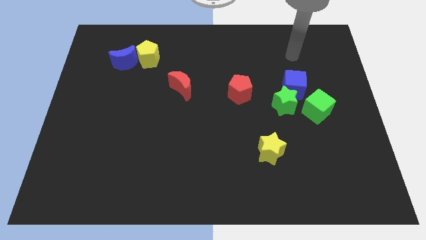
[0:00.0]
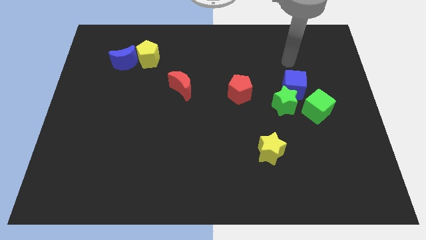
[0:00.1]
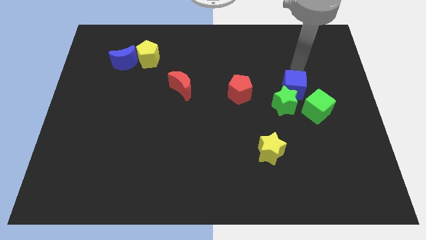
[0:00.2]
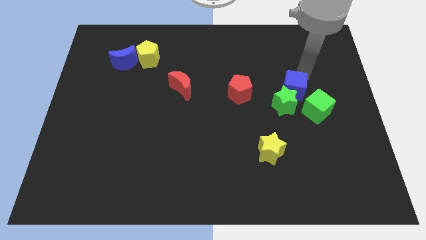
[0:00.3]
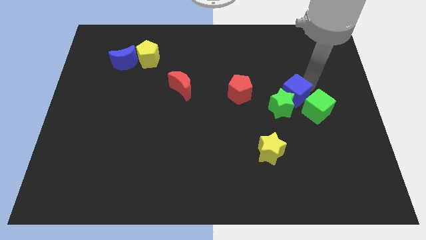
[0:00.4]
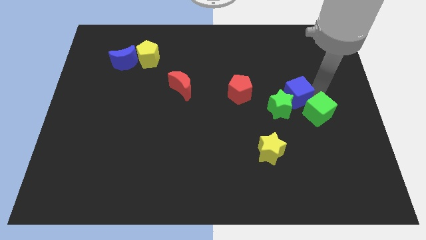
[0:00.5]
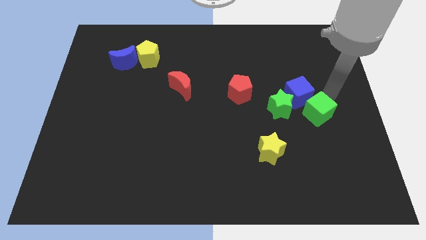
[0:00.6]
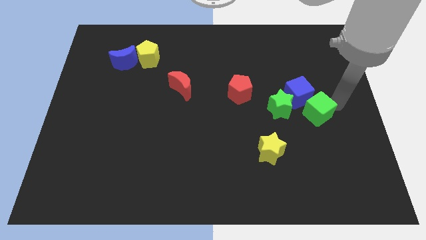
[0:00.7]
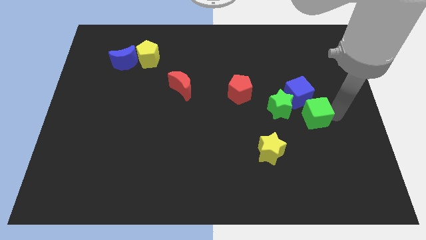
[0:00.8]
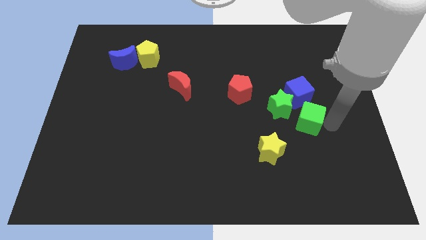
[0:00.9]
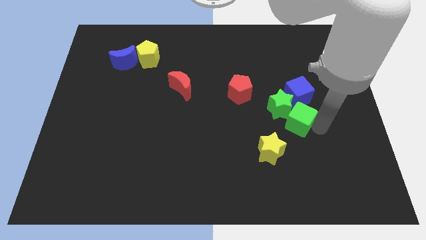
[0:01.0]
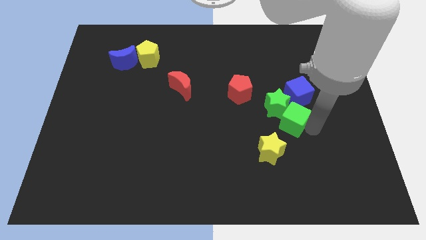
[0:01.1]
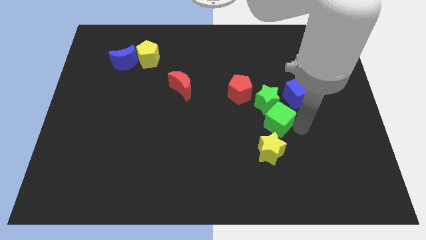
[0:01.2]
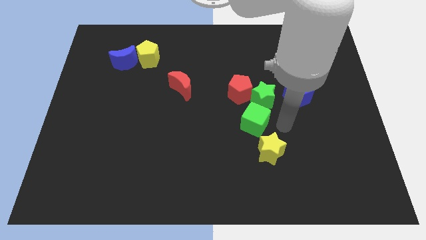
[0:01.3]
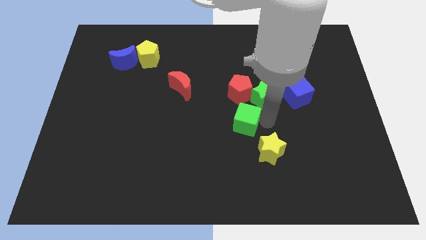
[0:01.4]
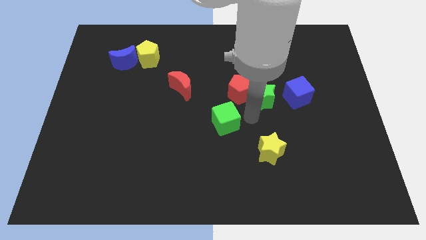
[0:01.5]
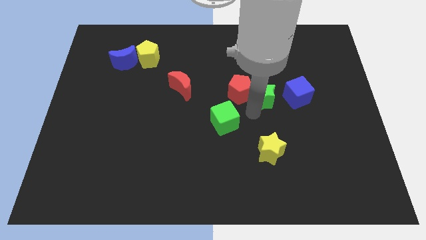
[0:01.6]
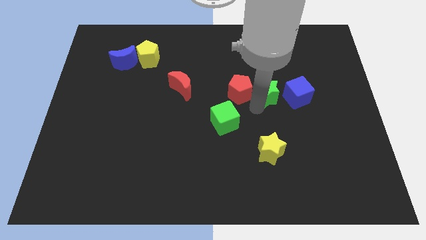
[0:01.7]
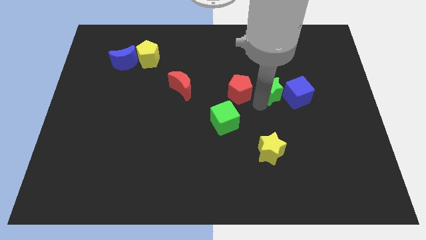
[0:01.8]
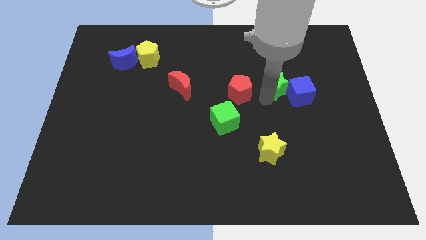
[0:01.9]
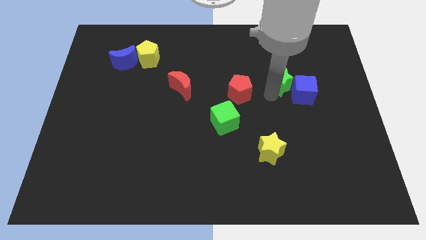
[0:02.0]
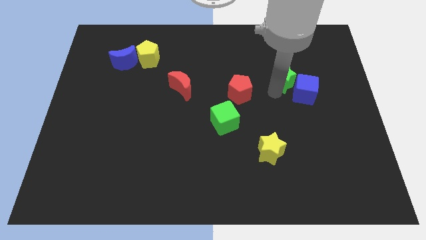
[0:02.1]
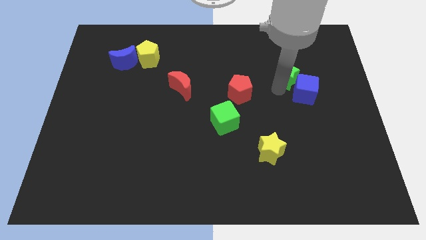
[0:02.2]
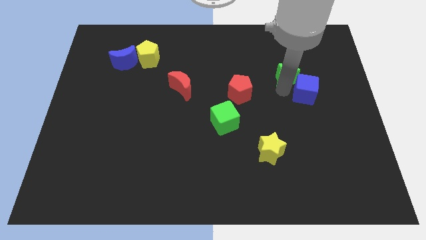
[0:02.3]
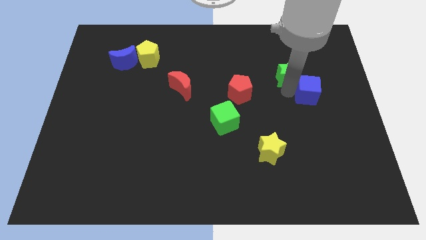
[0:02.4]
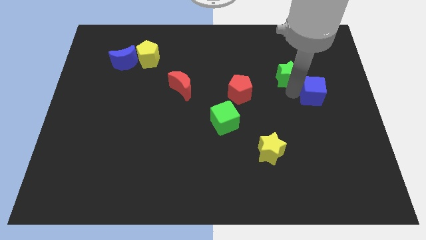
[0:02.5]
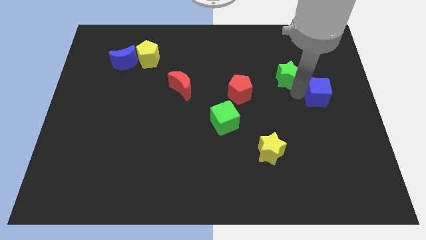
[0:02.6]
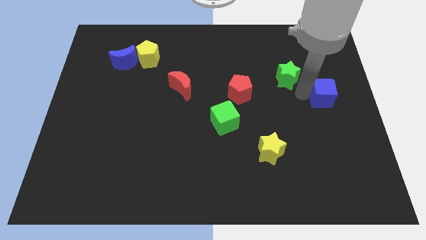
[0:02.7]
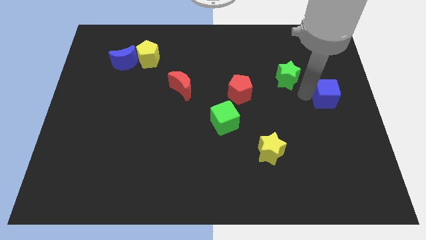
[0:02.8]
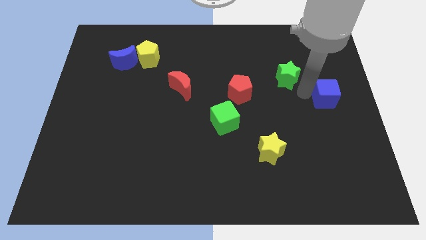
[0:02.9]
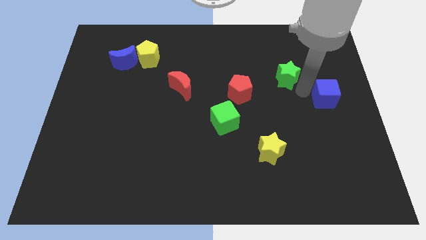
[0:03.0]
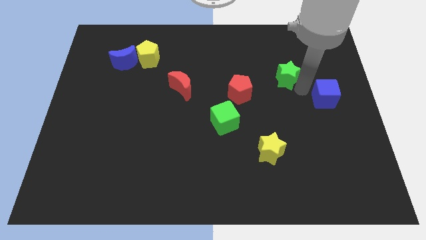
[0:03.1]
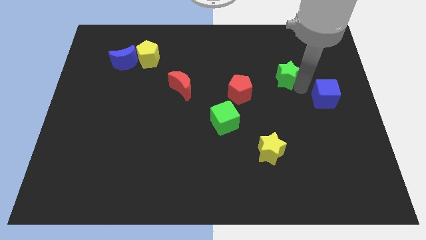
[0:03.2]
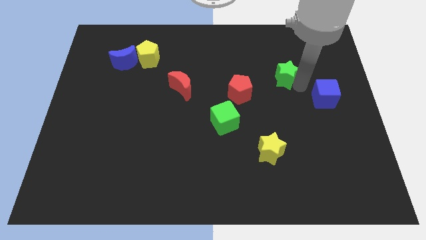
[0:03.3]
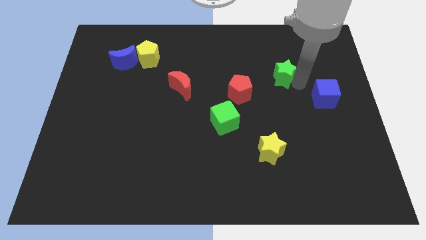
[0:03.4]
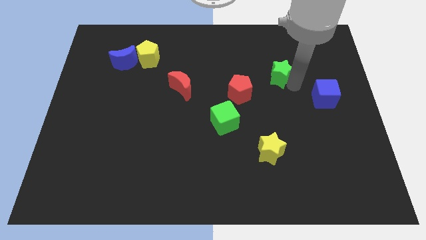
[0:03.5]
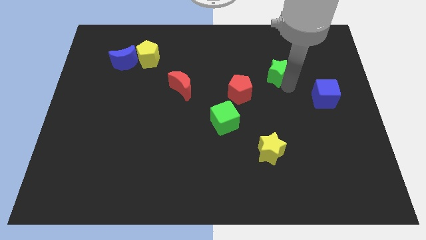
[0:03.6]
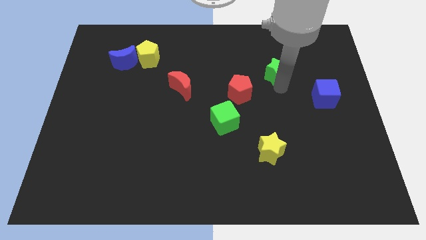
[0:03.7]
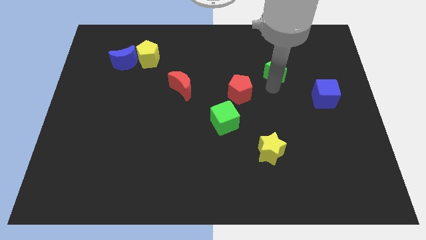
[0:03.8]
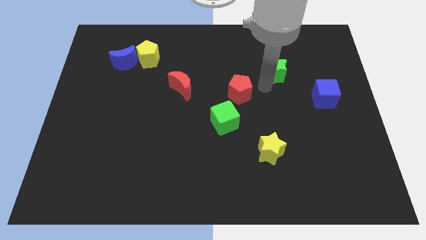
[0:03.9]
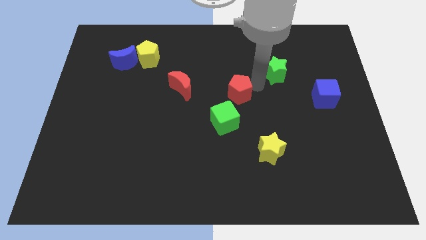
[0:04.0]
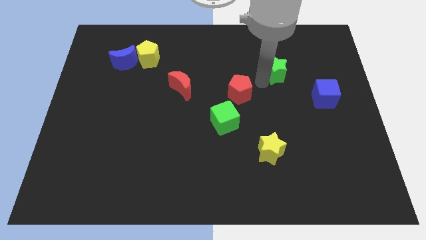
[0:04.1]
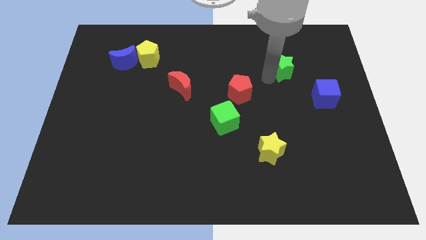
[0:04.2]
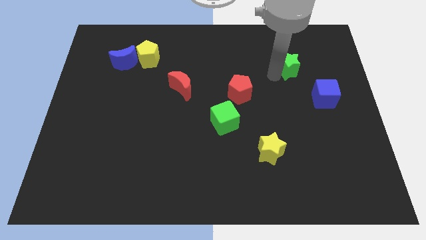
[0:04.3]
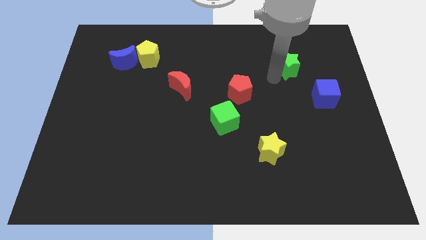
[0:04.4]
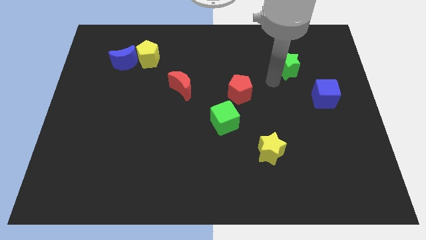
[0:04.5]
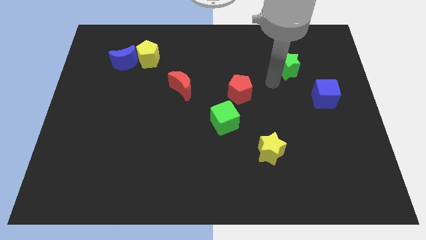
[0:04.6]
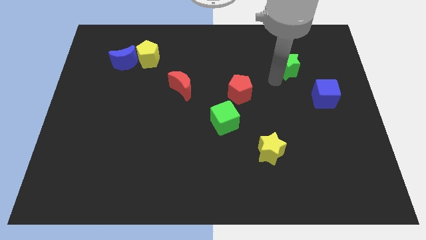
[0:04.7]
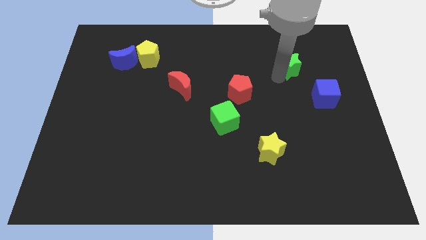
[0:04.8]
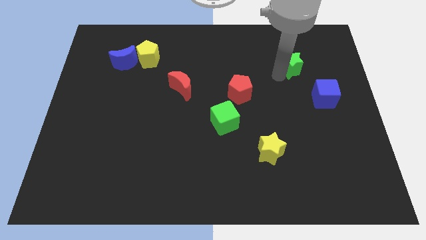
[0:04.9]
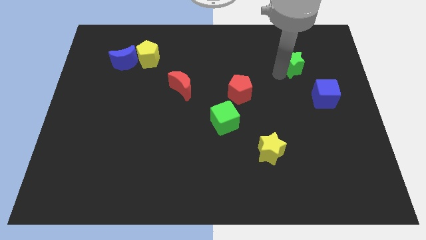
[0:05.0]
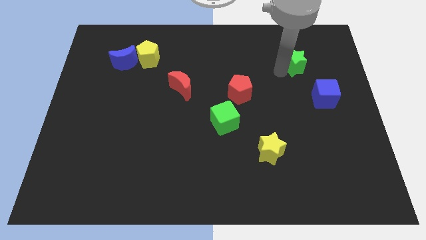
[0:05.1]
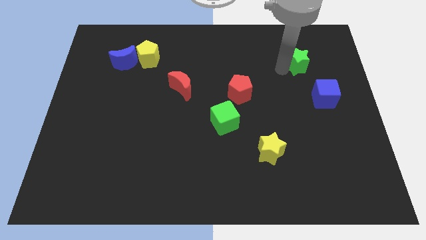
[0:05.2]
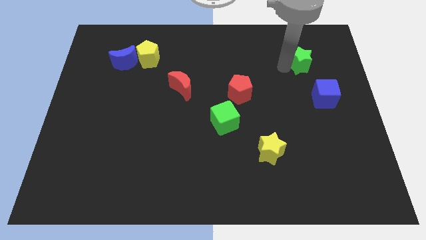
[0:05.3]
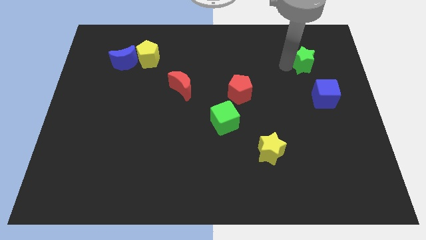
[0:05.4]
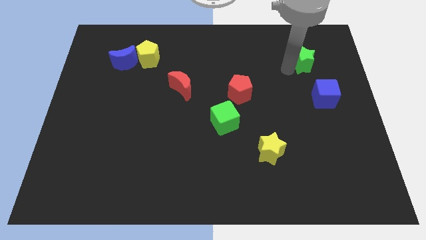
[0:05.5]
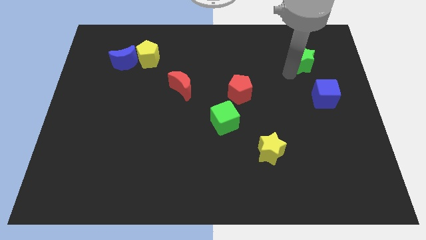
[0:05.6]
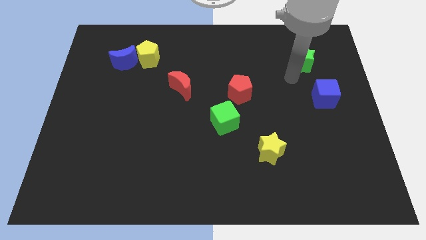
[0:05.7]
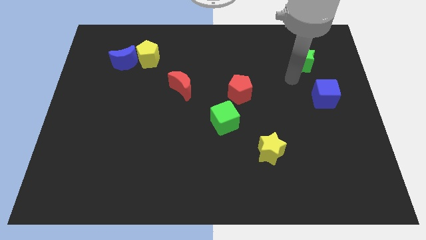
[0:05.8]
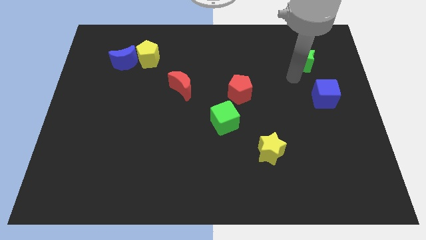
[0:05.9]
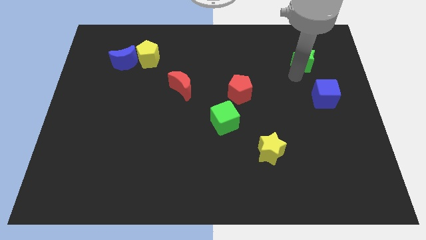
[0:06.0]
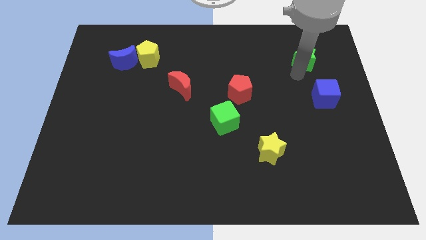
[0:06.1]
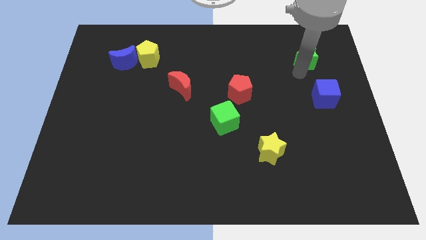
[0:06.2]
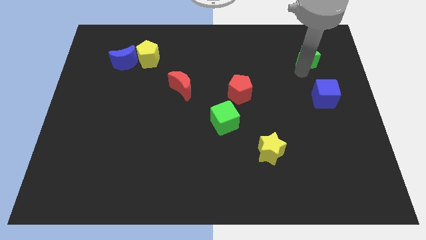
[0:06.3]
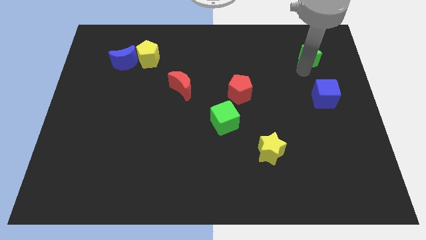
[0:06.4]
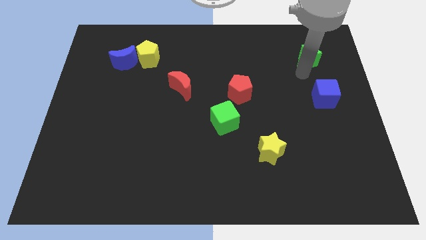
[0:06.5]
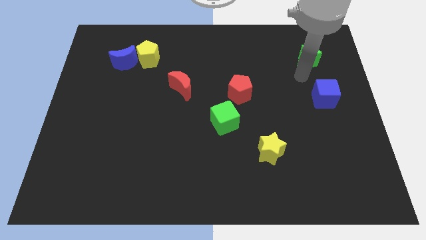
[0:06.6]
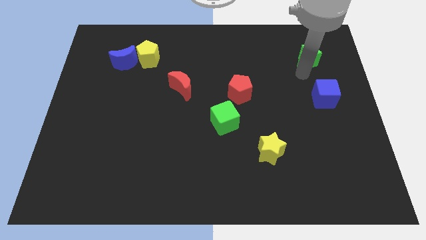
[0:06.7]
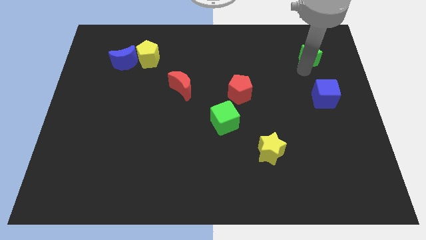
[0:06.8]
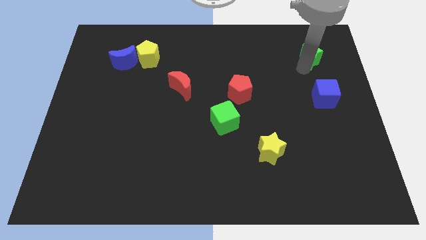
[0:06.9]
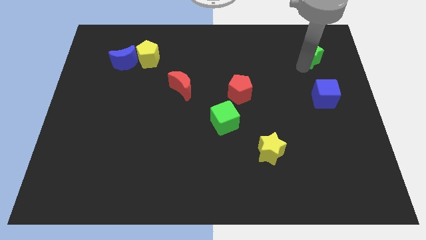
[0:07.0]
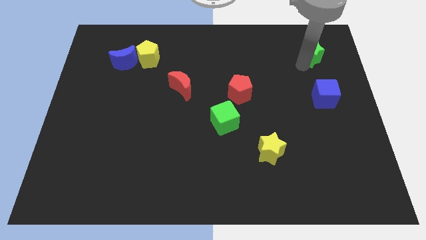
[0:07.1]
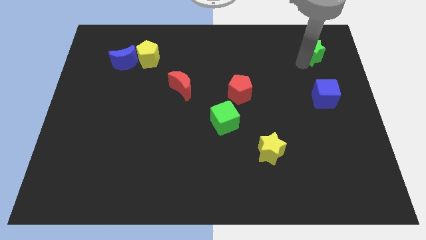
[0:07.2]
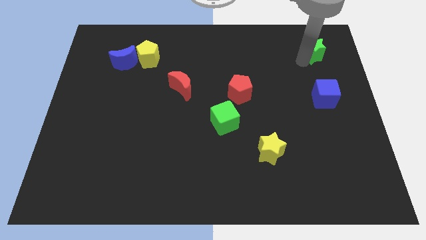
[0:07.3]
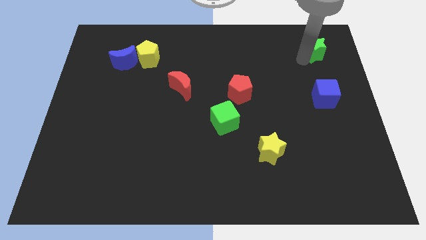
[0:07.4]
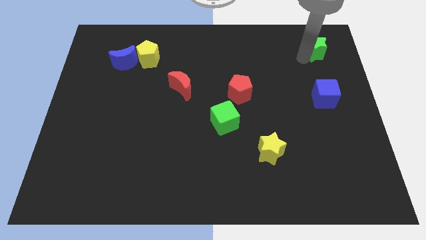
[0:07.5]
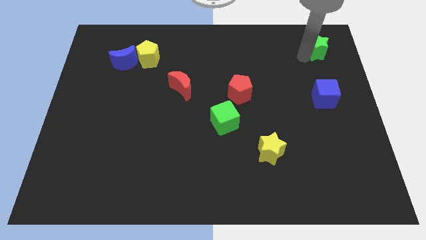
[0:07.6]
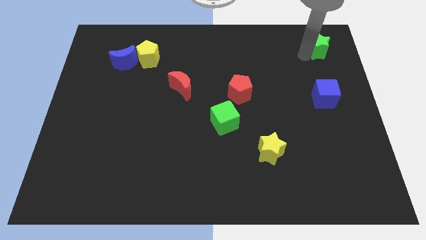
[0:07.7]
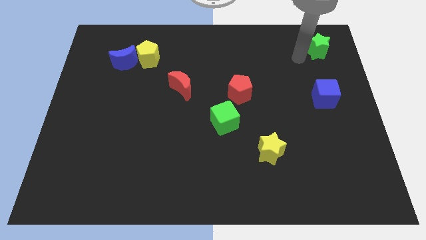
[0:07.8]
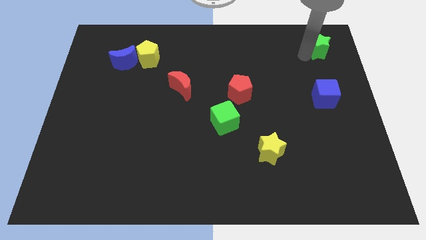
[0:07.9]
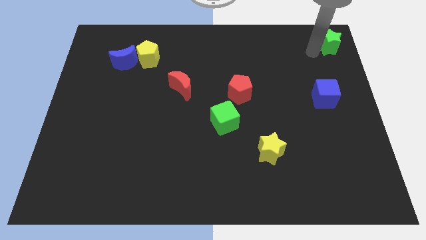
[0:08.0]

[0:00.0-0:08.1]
put the green star to the upper right corner
